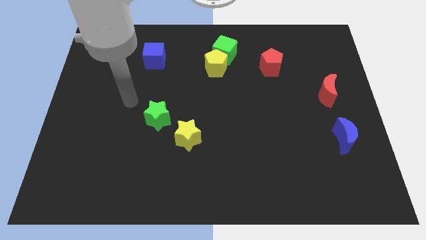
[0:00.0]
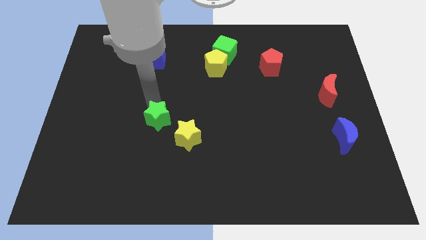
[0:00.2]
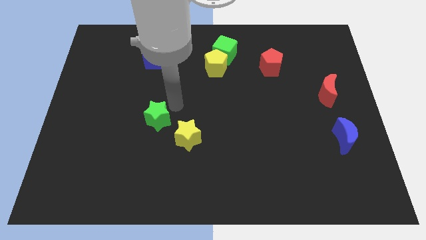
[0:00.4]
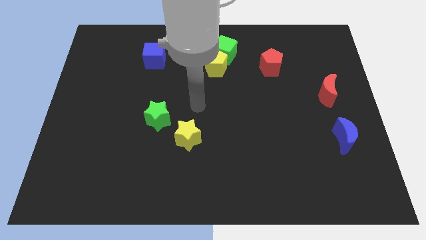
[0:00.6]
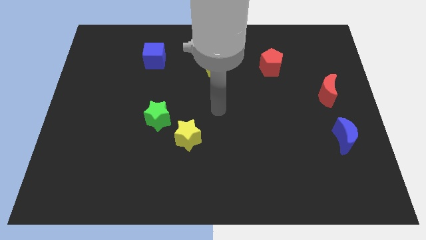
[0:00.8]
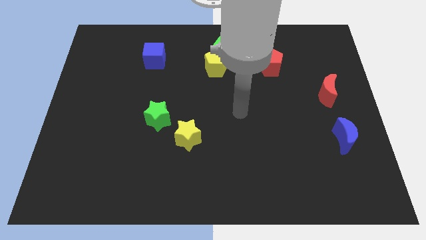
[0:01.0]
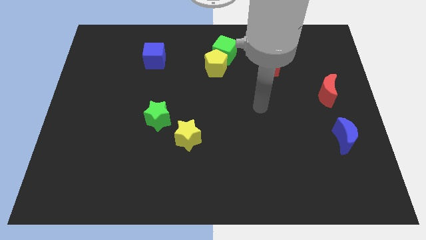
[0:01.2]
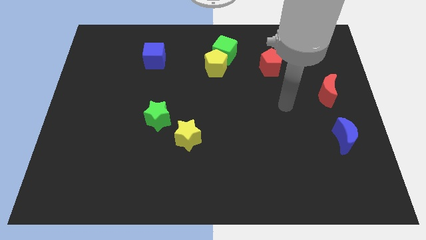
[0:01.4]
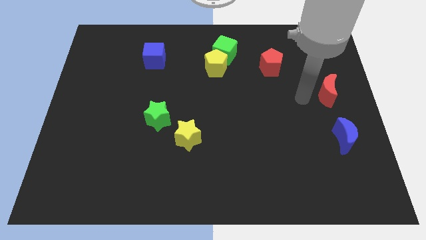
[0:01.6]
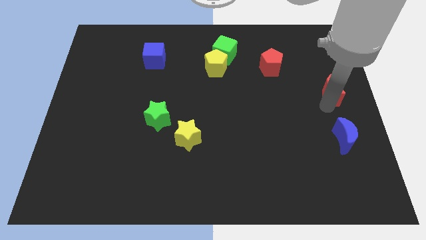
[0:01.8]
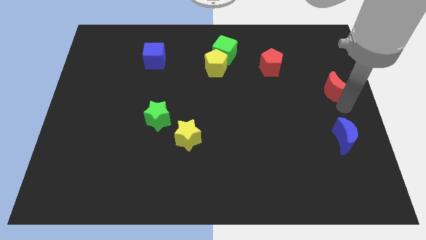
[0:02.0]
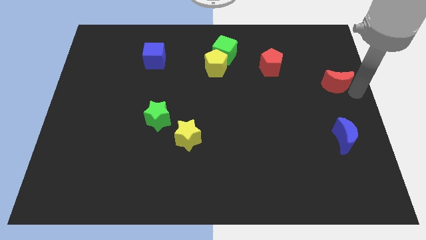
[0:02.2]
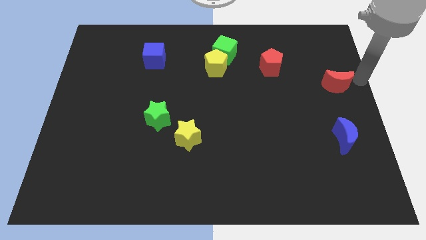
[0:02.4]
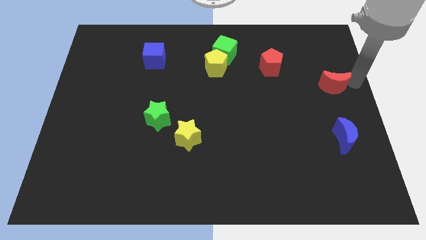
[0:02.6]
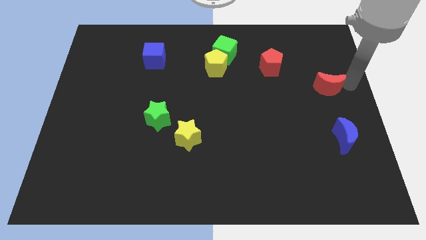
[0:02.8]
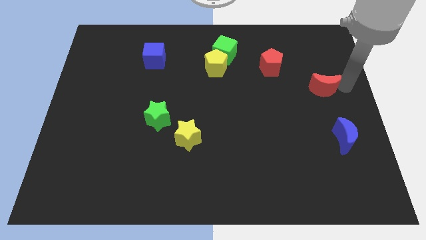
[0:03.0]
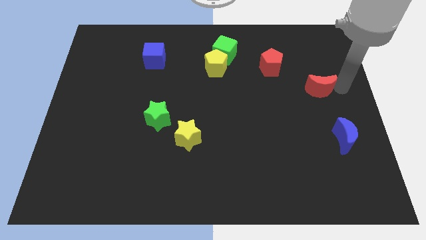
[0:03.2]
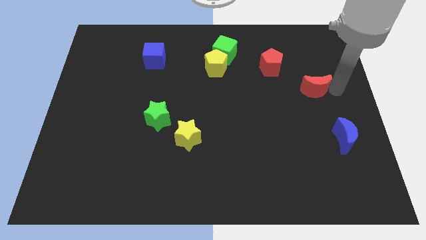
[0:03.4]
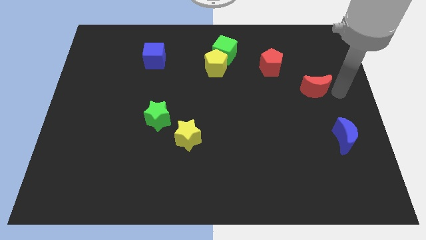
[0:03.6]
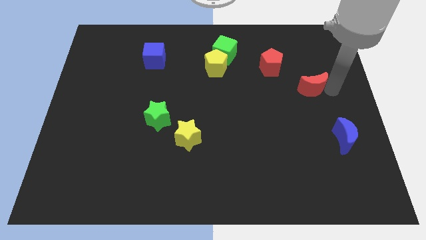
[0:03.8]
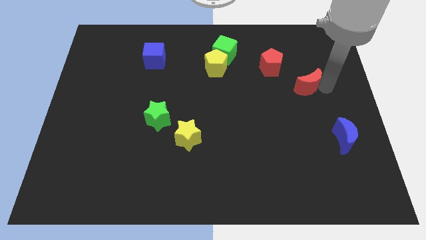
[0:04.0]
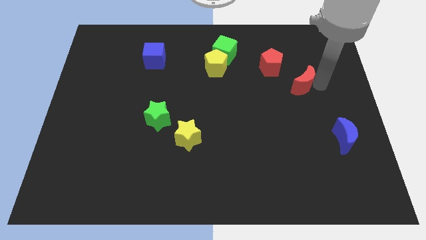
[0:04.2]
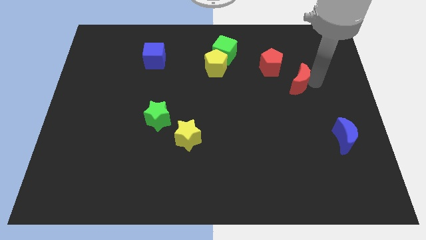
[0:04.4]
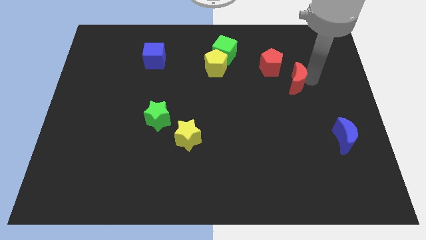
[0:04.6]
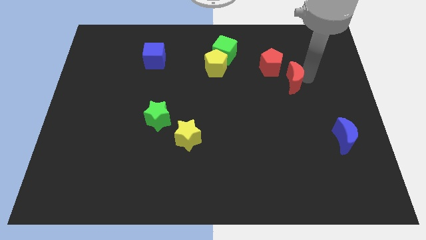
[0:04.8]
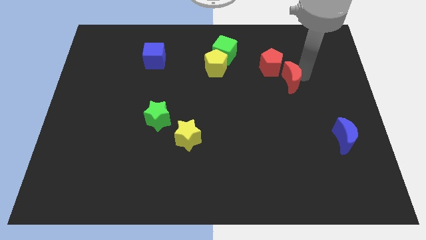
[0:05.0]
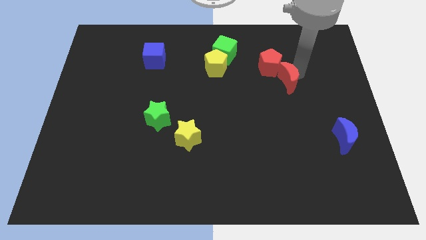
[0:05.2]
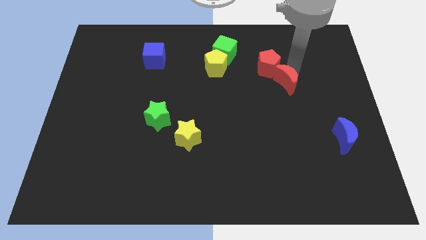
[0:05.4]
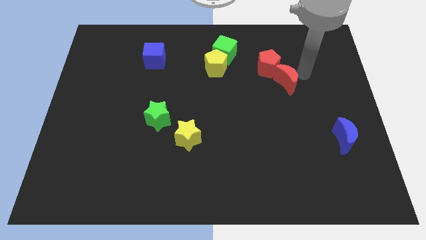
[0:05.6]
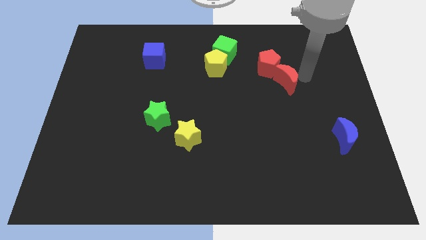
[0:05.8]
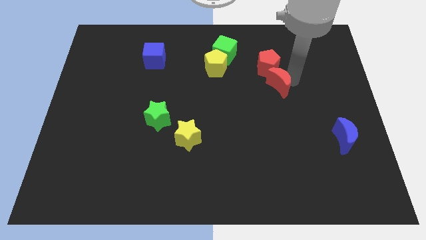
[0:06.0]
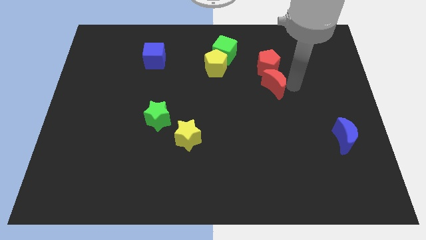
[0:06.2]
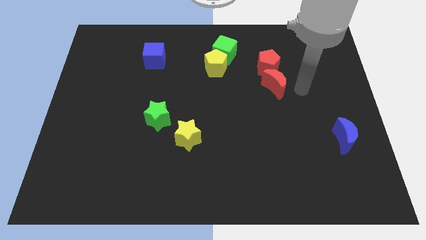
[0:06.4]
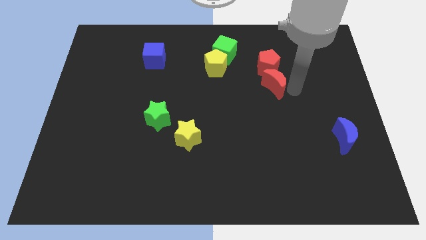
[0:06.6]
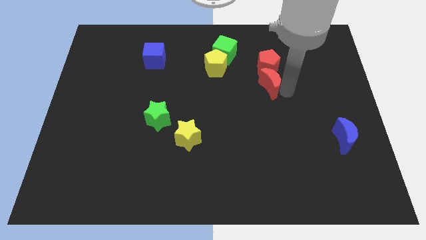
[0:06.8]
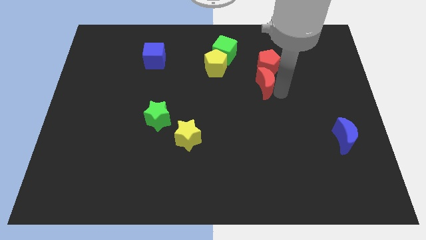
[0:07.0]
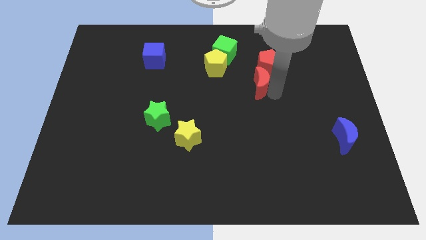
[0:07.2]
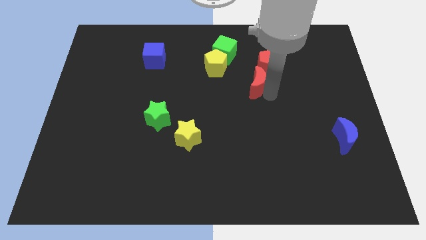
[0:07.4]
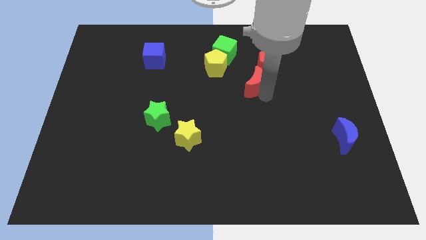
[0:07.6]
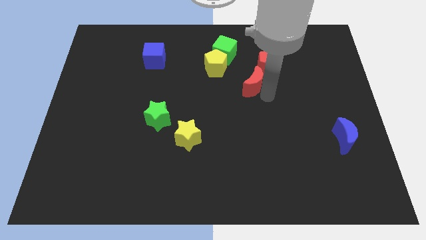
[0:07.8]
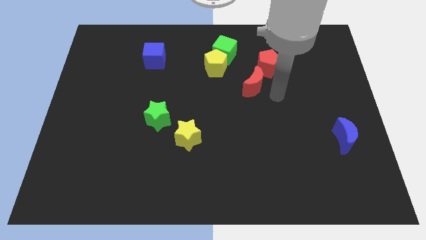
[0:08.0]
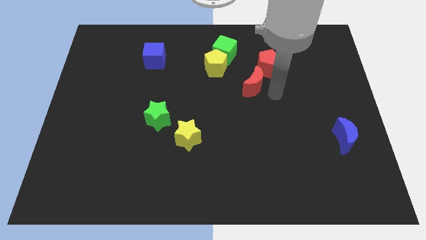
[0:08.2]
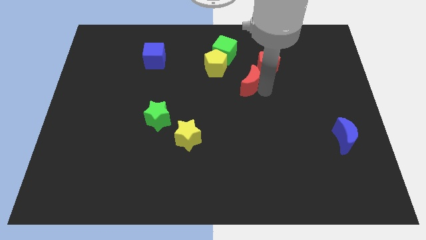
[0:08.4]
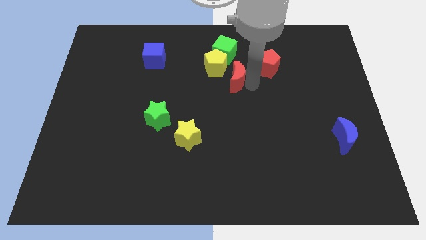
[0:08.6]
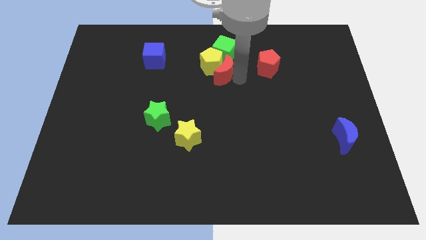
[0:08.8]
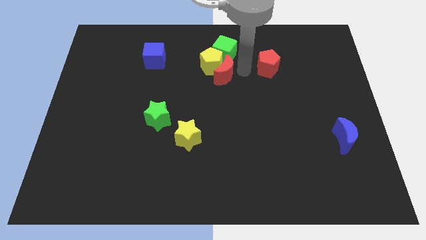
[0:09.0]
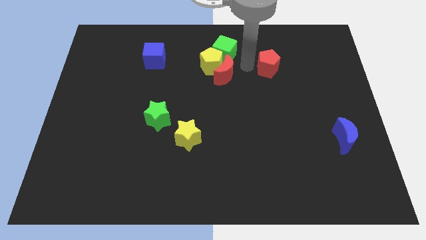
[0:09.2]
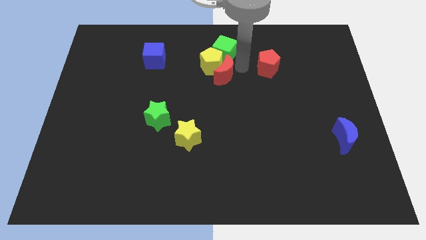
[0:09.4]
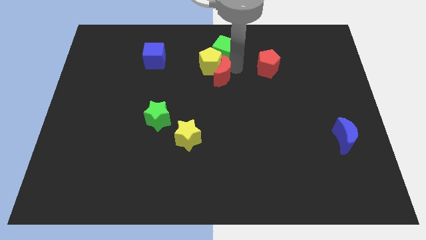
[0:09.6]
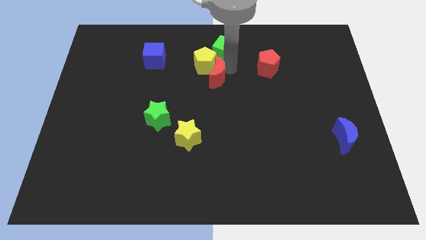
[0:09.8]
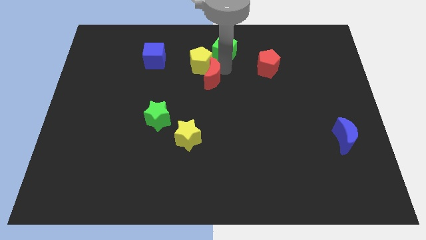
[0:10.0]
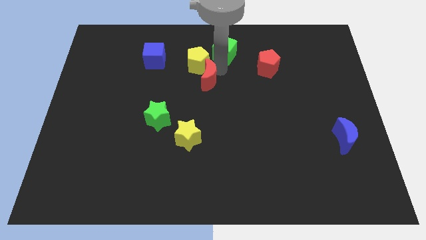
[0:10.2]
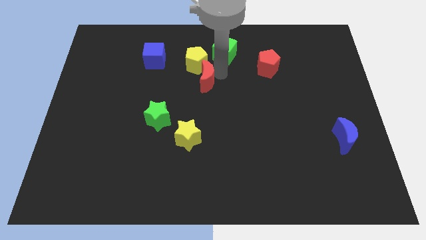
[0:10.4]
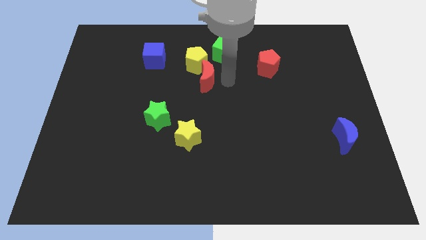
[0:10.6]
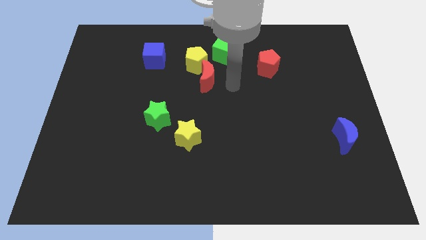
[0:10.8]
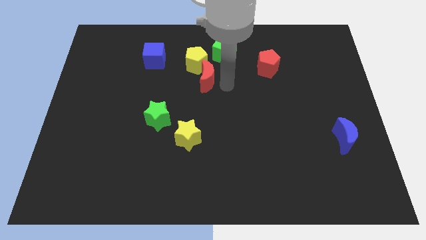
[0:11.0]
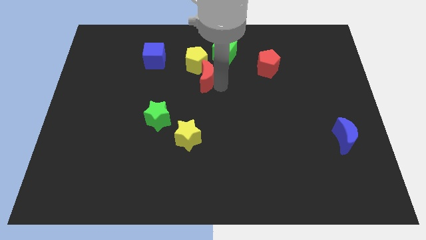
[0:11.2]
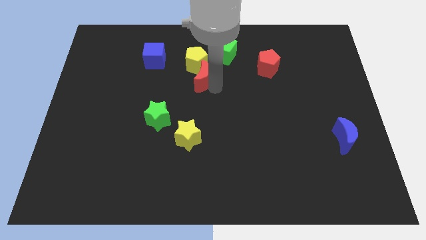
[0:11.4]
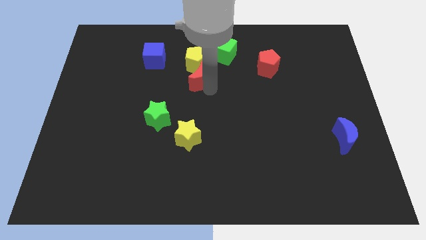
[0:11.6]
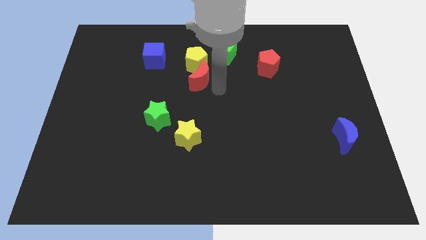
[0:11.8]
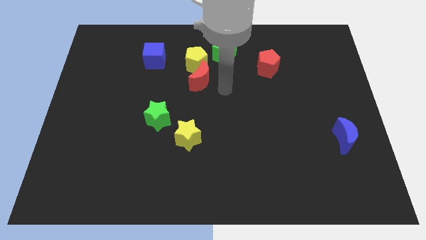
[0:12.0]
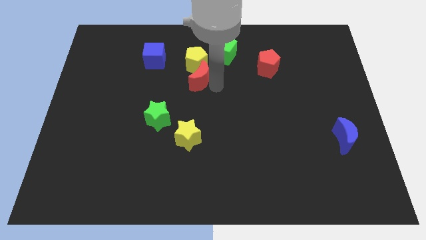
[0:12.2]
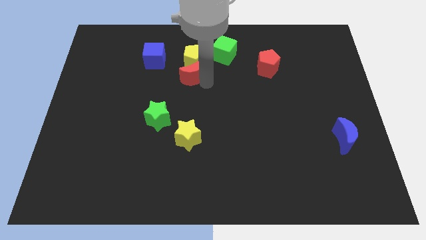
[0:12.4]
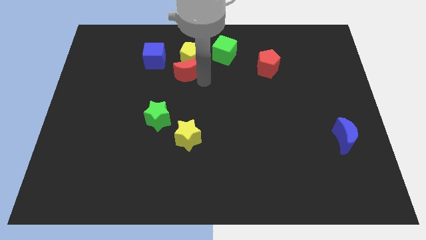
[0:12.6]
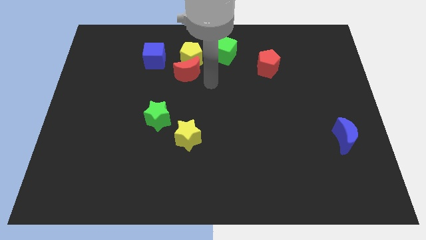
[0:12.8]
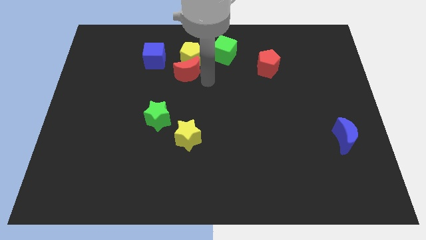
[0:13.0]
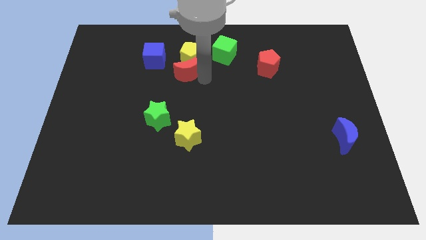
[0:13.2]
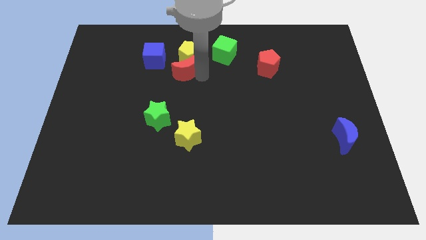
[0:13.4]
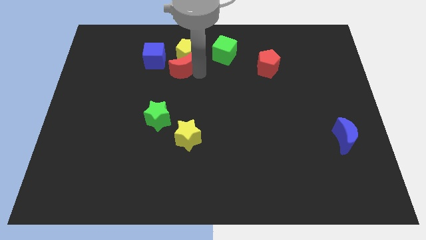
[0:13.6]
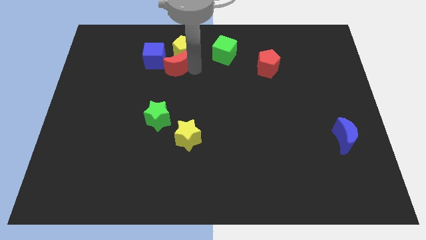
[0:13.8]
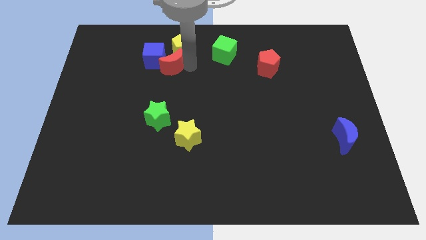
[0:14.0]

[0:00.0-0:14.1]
move the red moon close to the blue cube

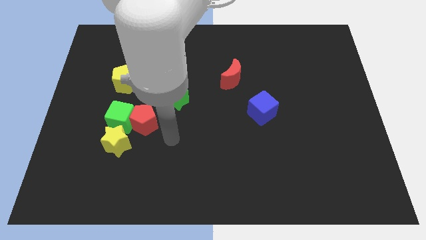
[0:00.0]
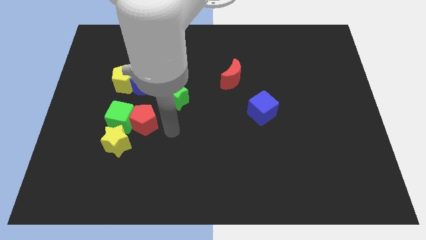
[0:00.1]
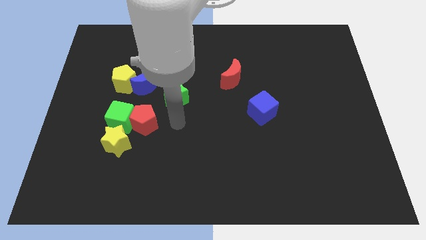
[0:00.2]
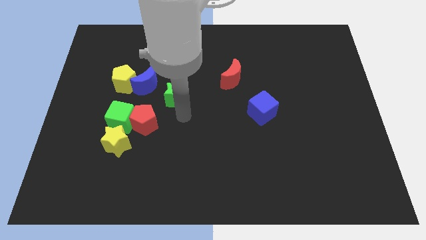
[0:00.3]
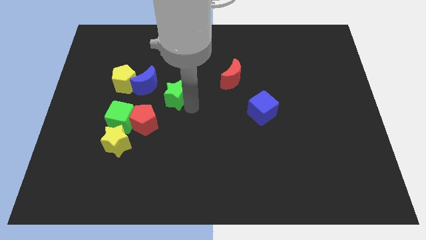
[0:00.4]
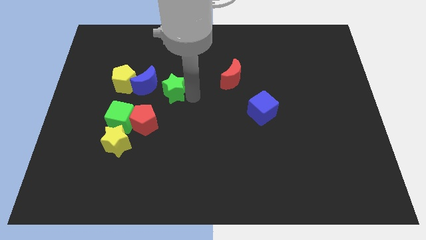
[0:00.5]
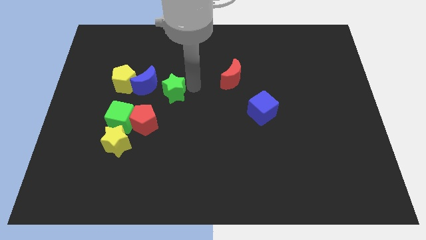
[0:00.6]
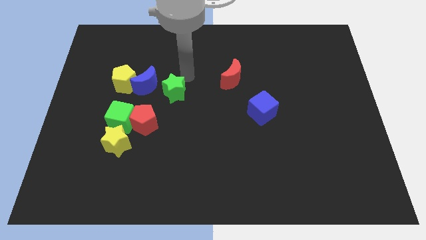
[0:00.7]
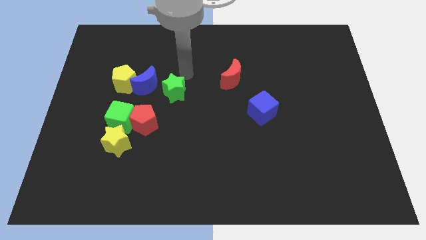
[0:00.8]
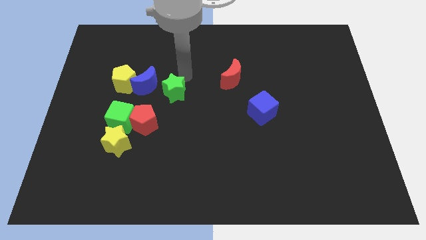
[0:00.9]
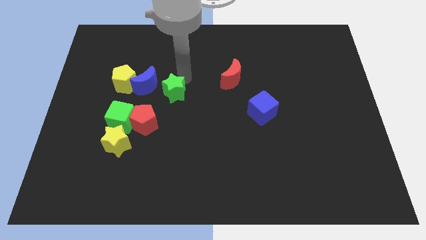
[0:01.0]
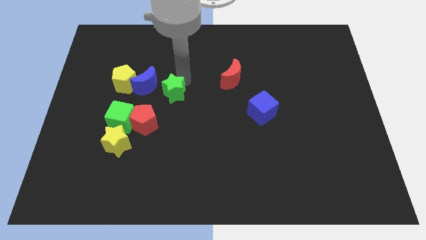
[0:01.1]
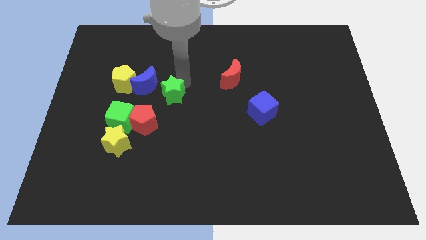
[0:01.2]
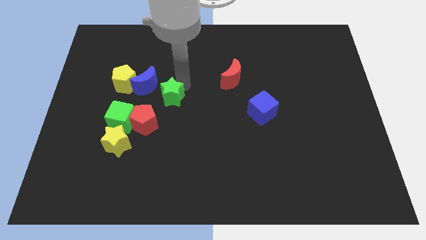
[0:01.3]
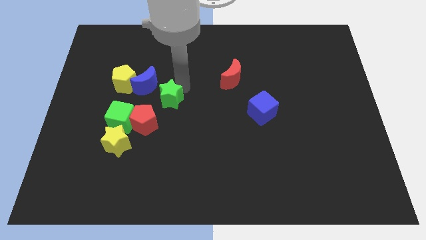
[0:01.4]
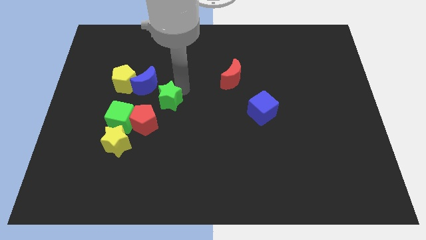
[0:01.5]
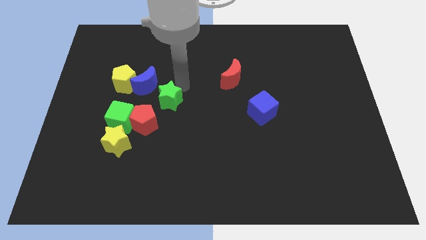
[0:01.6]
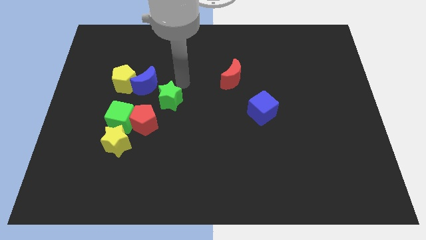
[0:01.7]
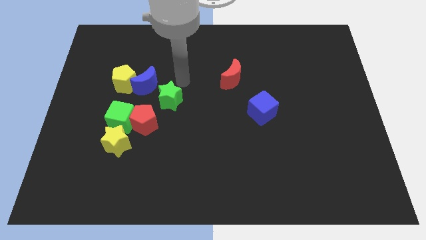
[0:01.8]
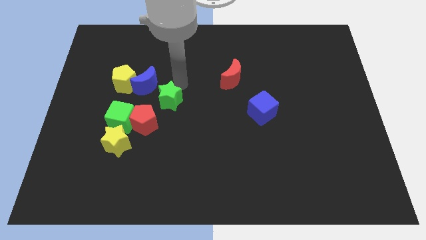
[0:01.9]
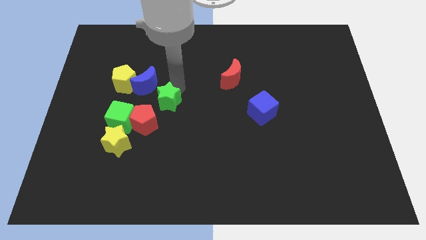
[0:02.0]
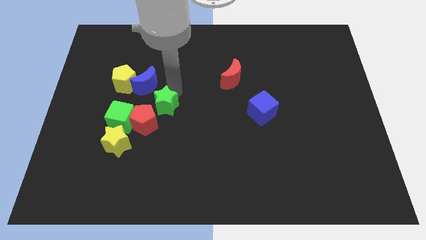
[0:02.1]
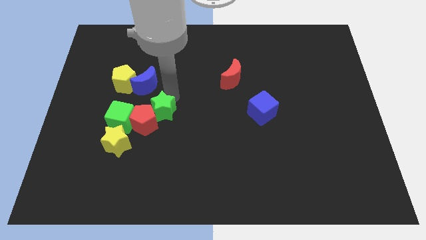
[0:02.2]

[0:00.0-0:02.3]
push the green star towards the red pentagon
